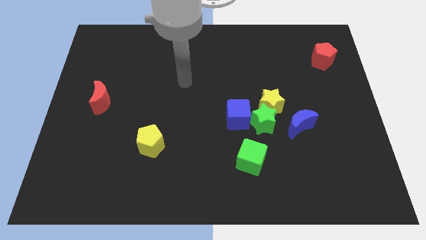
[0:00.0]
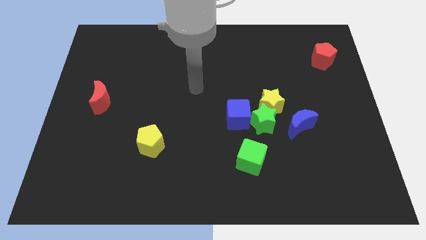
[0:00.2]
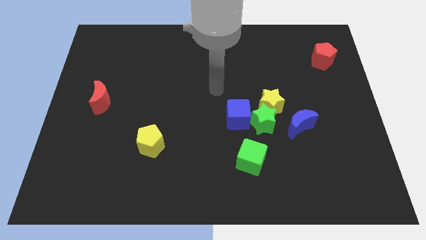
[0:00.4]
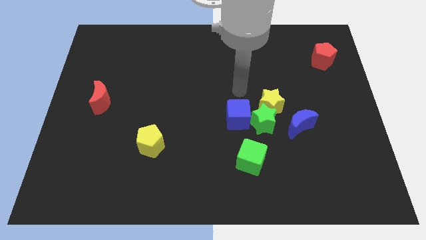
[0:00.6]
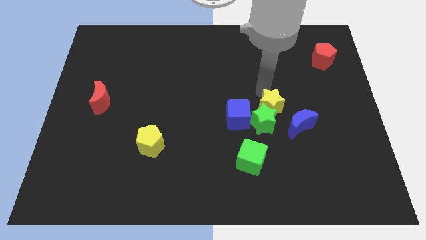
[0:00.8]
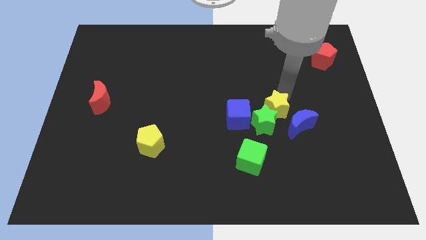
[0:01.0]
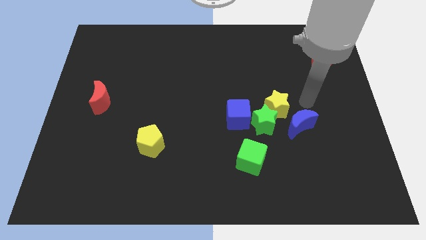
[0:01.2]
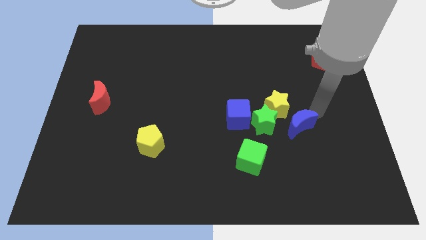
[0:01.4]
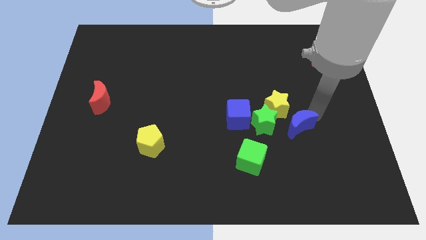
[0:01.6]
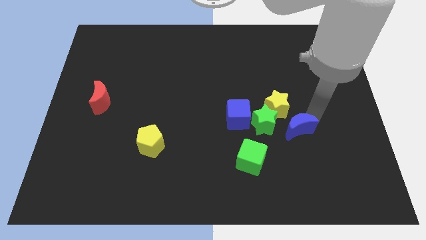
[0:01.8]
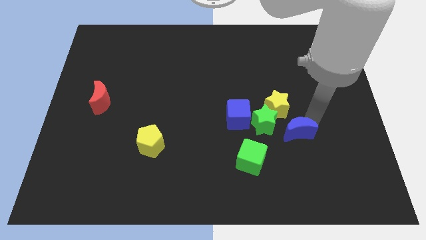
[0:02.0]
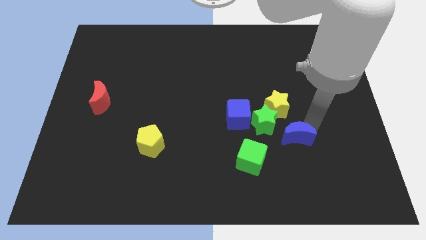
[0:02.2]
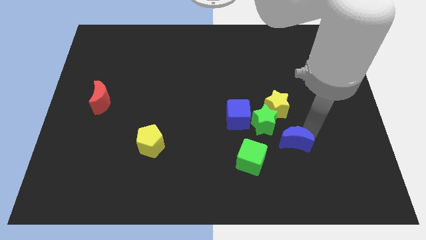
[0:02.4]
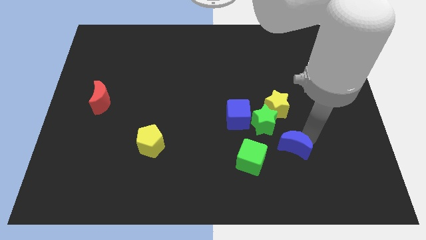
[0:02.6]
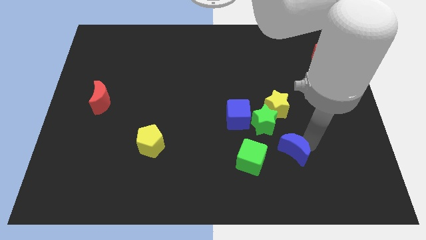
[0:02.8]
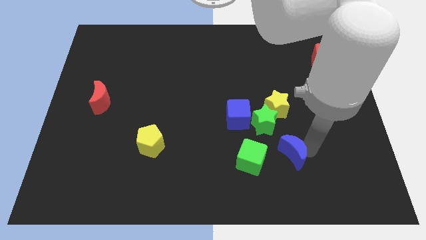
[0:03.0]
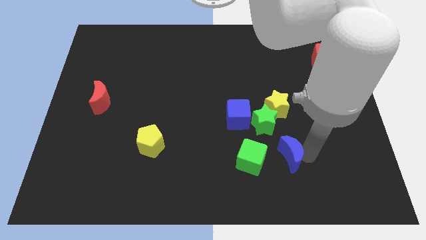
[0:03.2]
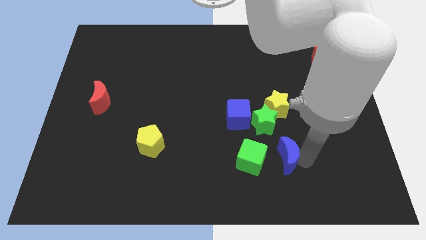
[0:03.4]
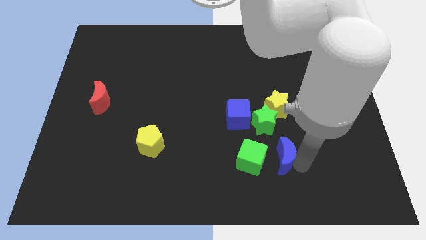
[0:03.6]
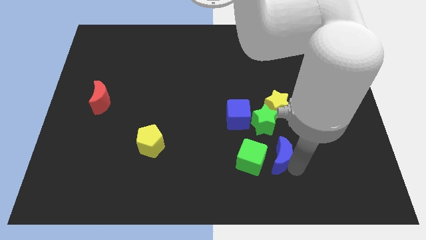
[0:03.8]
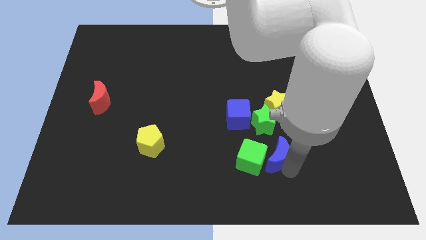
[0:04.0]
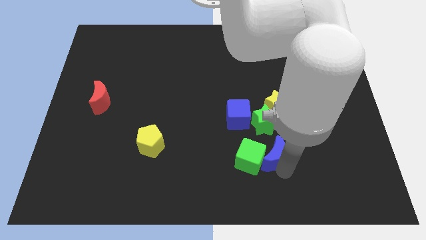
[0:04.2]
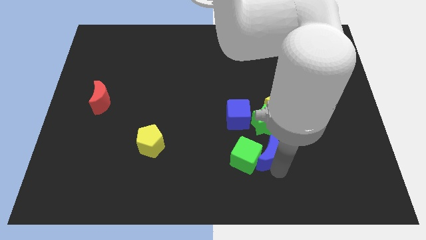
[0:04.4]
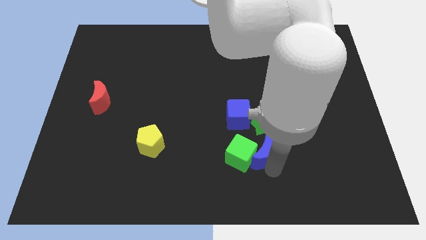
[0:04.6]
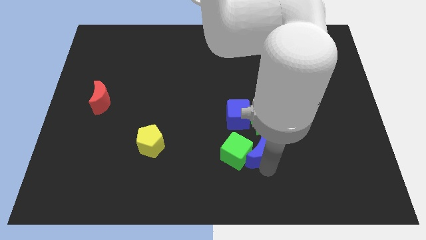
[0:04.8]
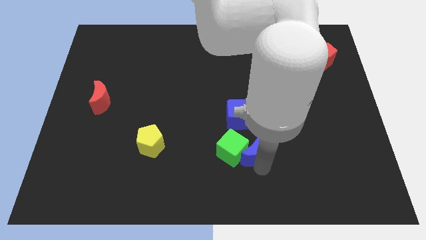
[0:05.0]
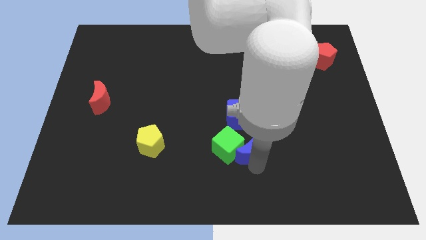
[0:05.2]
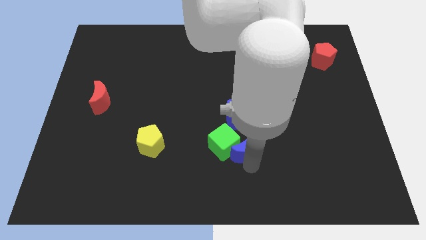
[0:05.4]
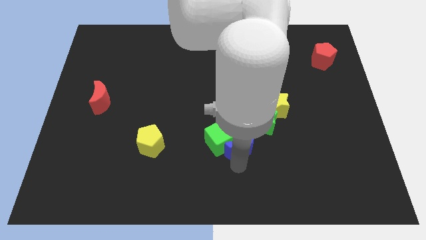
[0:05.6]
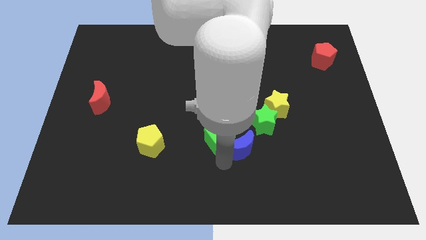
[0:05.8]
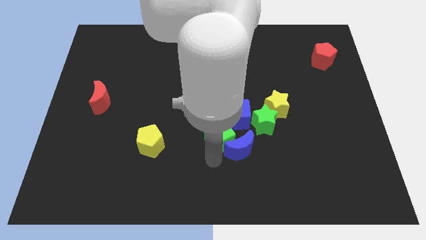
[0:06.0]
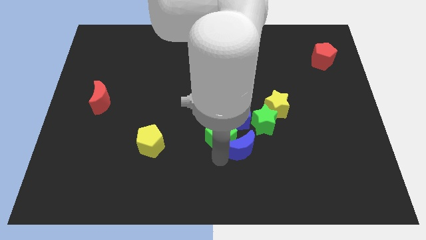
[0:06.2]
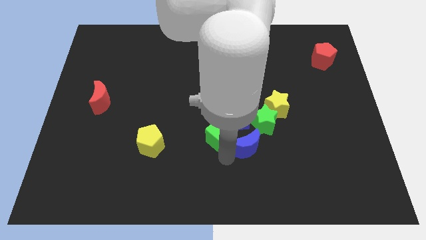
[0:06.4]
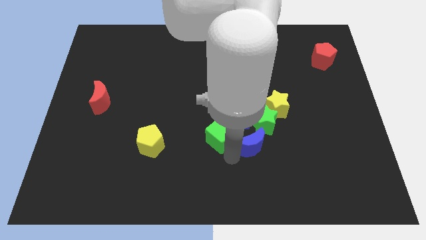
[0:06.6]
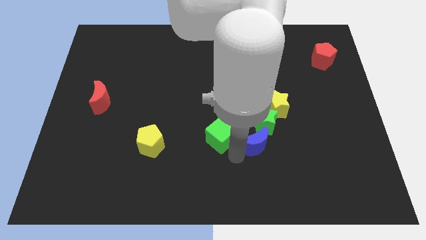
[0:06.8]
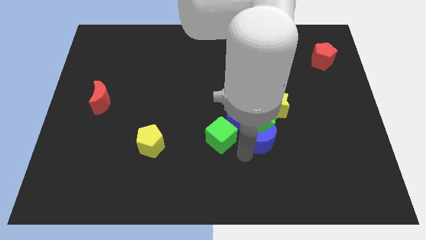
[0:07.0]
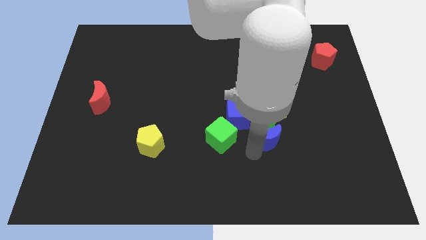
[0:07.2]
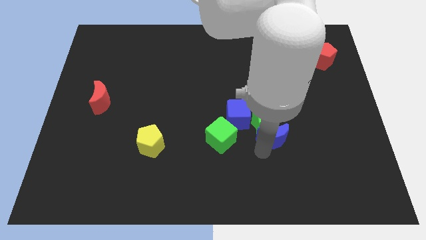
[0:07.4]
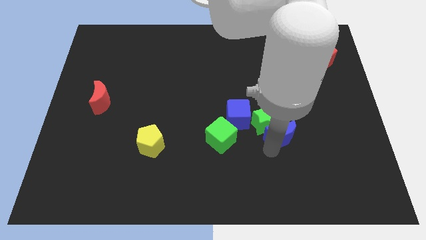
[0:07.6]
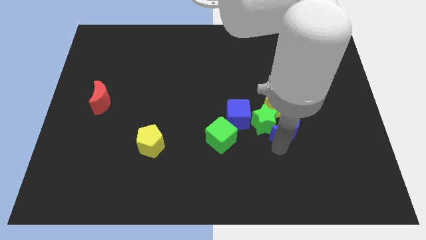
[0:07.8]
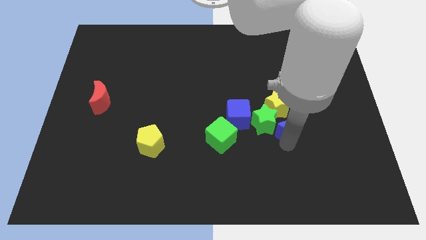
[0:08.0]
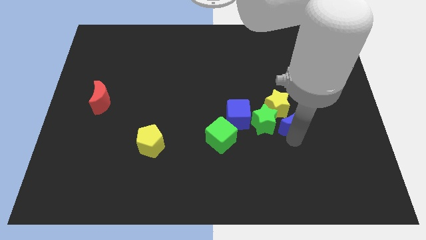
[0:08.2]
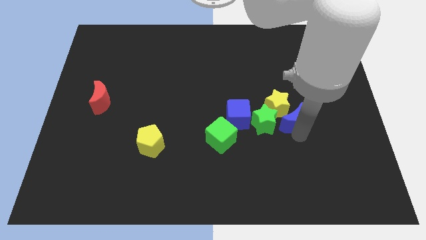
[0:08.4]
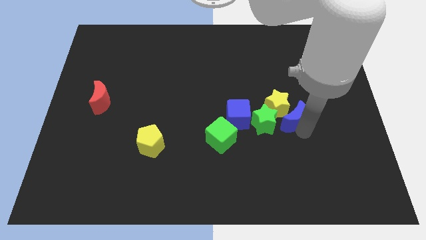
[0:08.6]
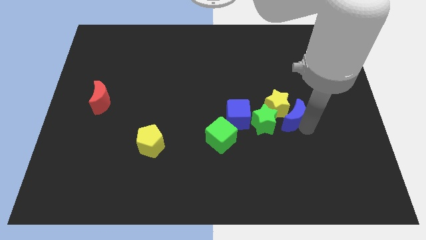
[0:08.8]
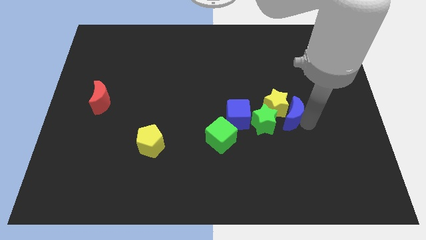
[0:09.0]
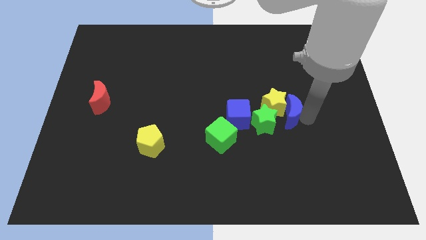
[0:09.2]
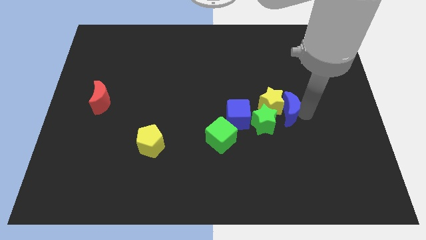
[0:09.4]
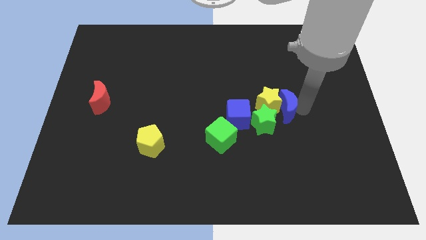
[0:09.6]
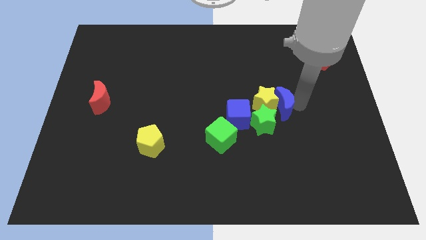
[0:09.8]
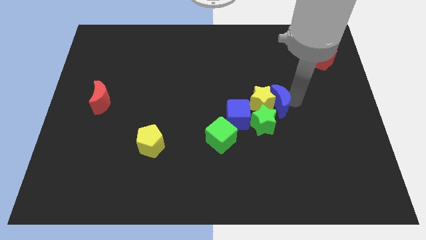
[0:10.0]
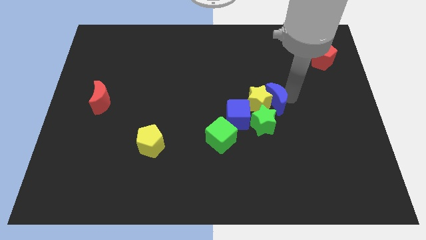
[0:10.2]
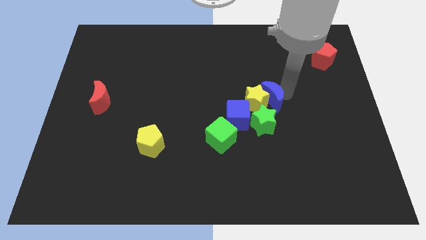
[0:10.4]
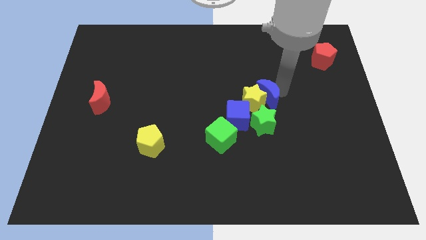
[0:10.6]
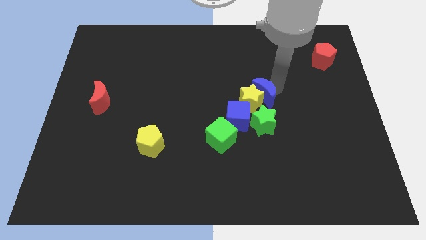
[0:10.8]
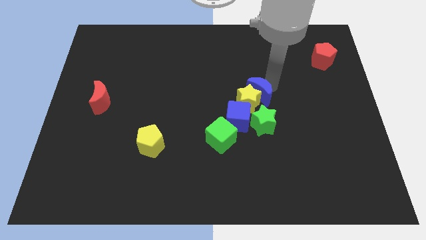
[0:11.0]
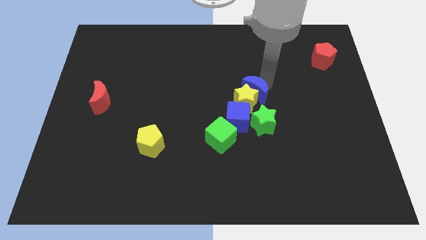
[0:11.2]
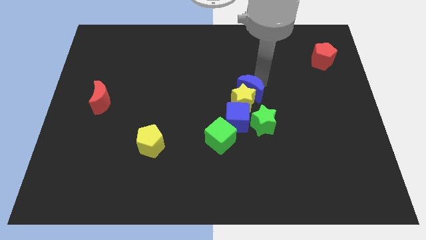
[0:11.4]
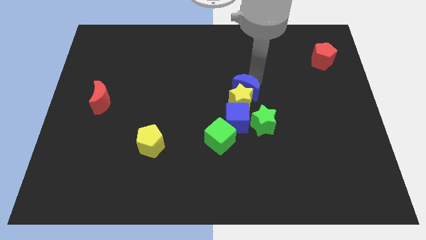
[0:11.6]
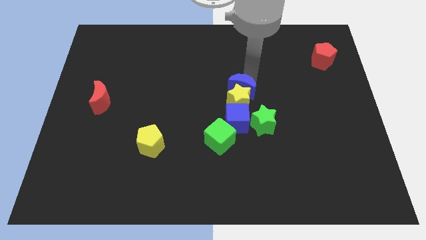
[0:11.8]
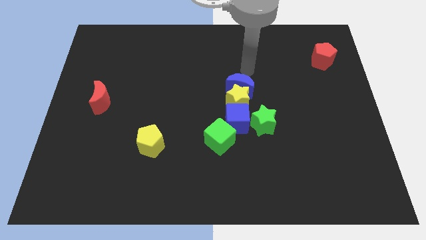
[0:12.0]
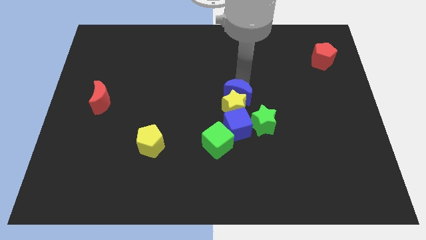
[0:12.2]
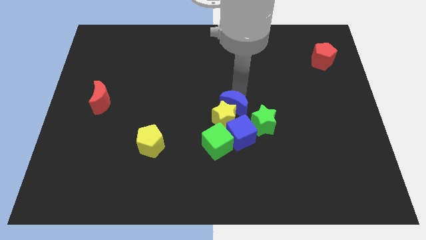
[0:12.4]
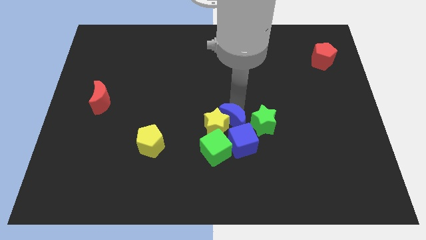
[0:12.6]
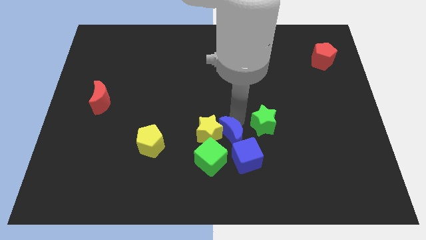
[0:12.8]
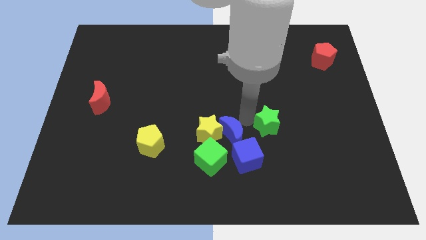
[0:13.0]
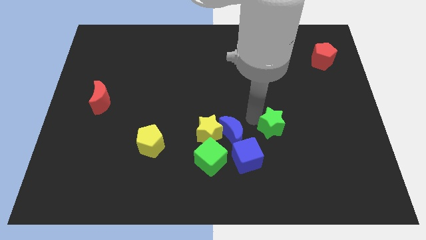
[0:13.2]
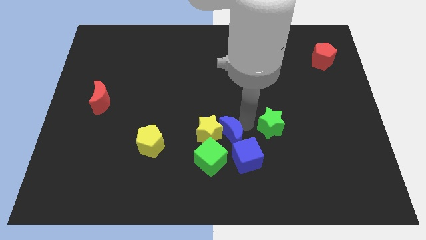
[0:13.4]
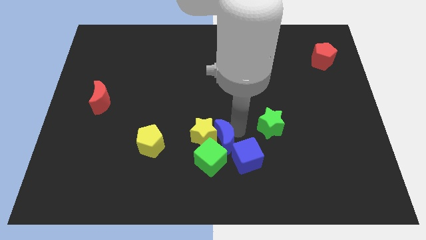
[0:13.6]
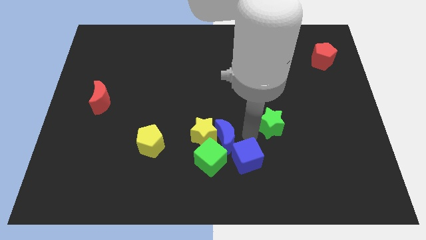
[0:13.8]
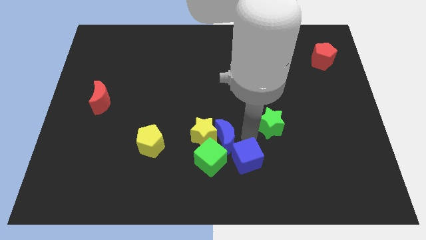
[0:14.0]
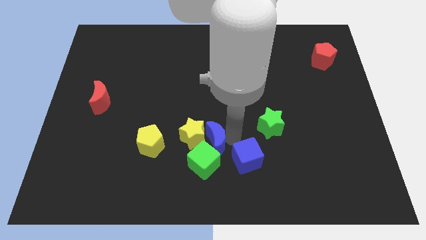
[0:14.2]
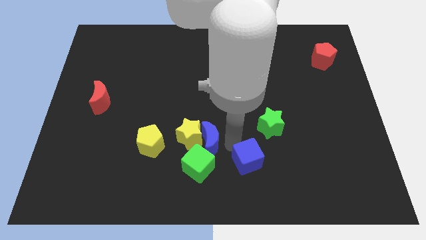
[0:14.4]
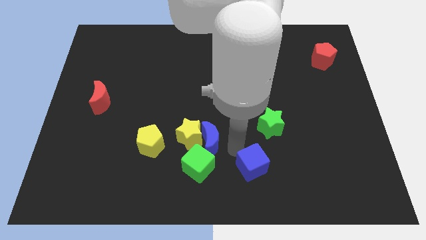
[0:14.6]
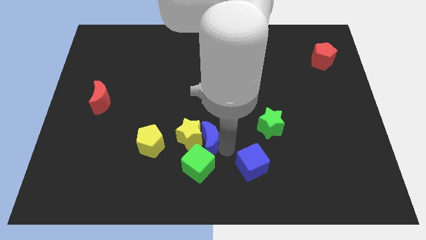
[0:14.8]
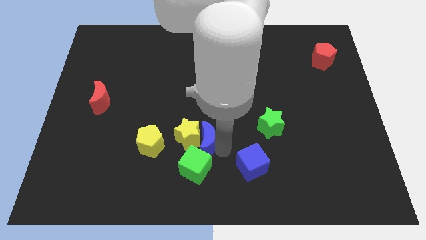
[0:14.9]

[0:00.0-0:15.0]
move the blue moon left

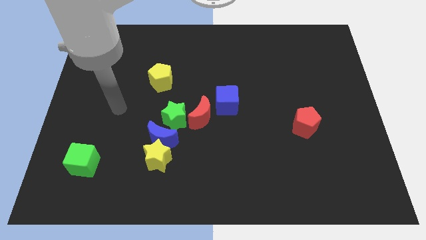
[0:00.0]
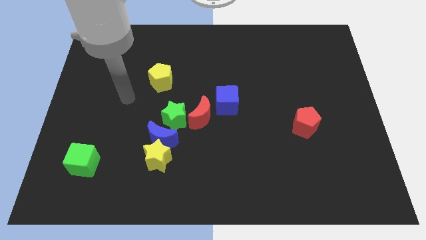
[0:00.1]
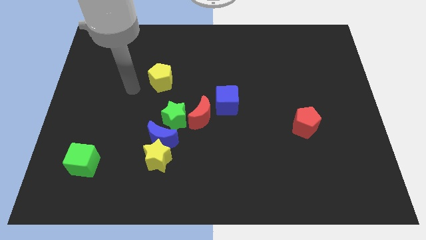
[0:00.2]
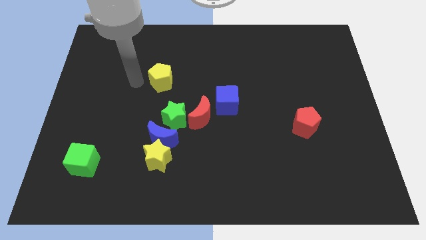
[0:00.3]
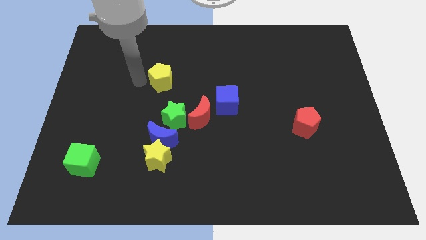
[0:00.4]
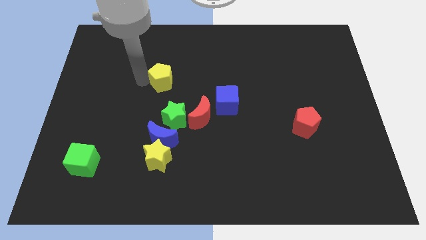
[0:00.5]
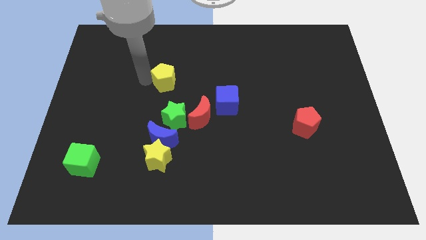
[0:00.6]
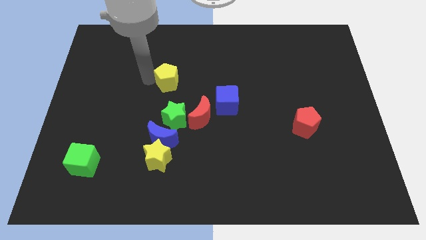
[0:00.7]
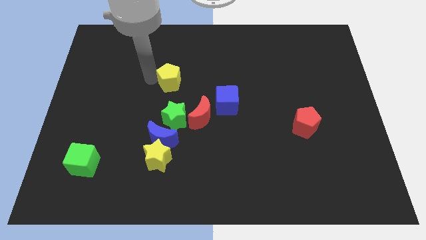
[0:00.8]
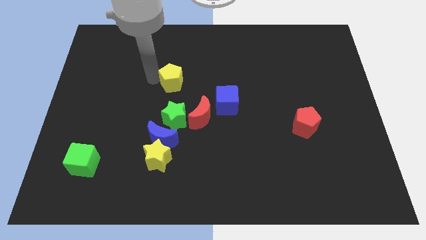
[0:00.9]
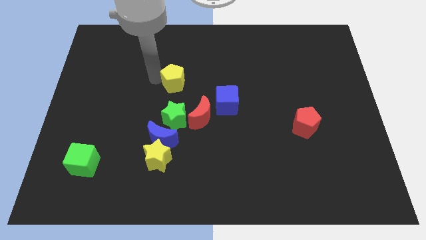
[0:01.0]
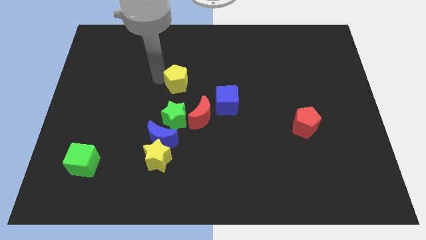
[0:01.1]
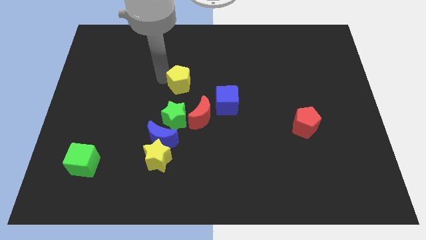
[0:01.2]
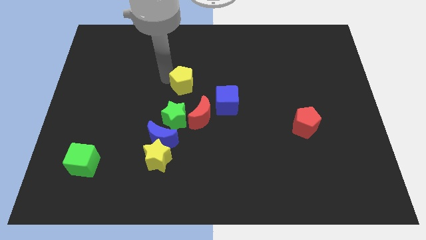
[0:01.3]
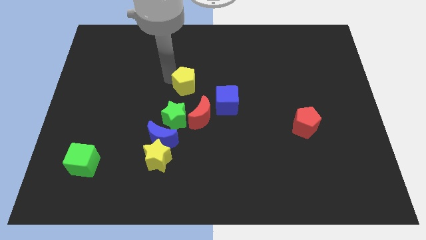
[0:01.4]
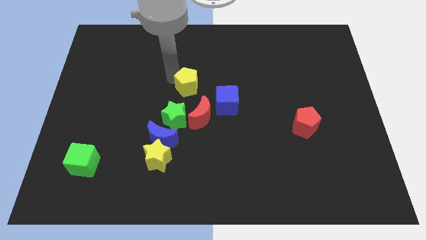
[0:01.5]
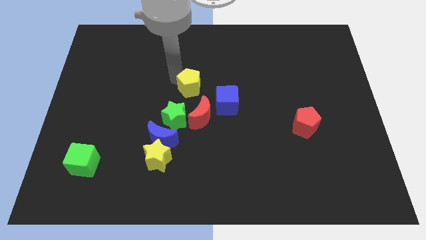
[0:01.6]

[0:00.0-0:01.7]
slightly slide the yellow pentagon right
